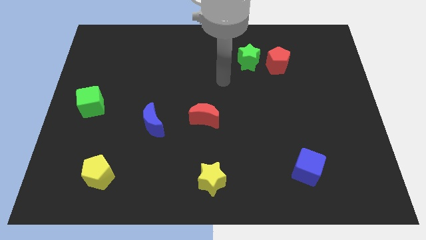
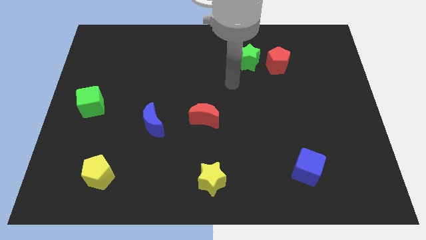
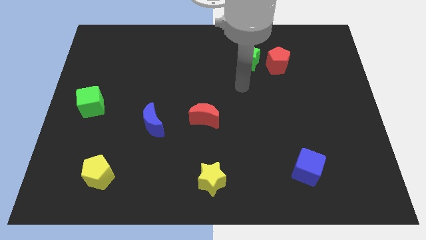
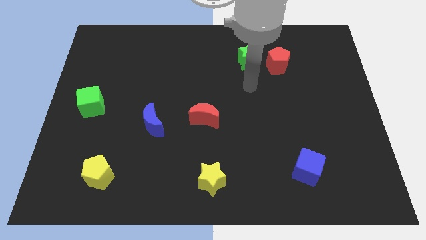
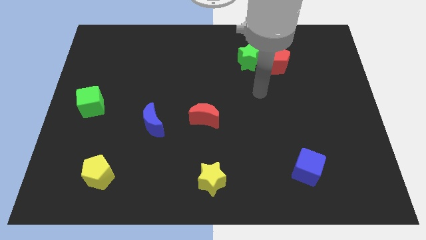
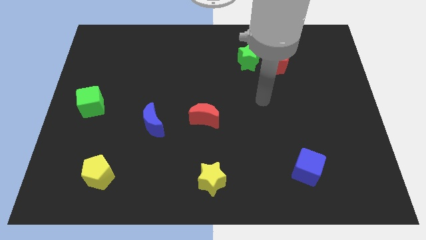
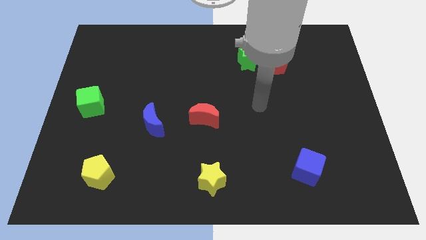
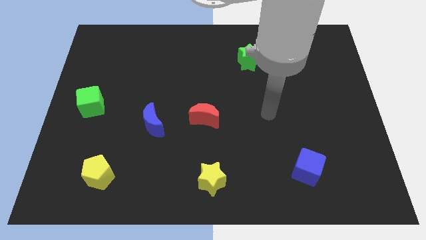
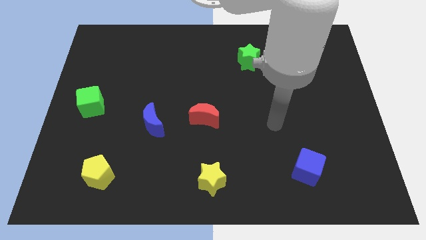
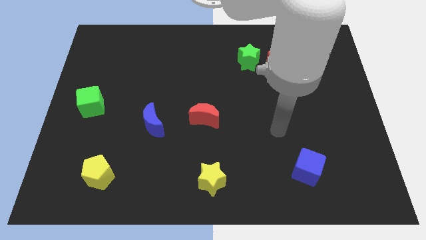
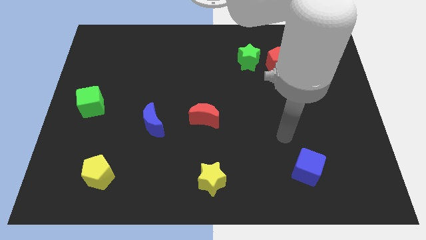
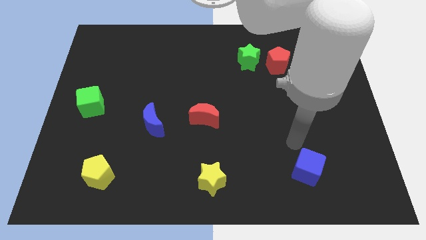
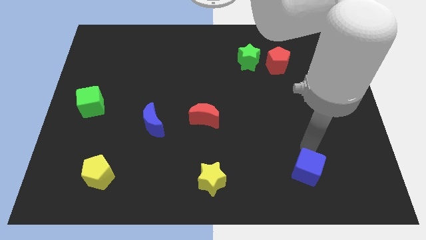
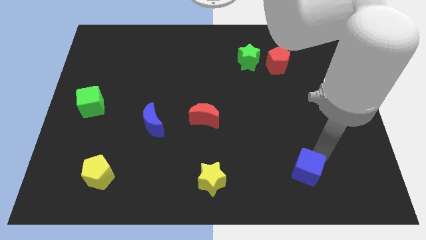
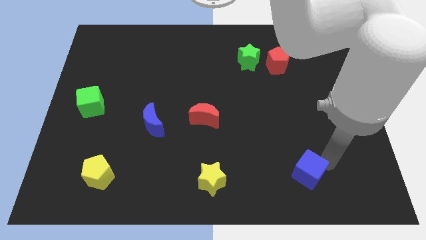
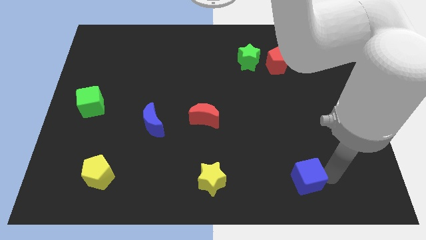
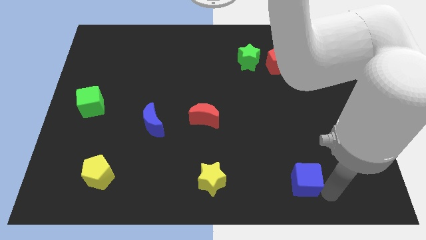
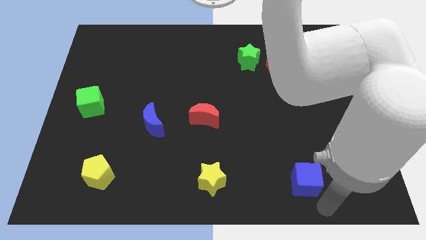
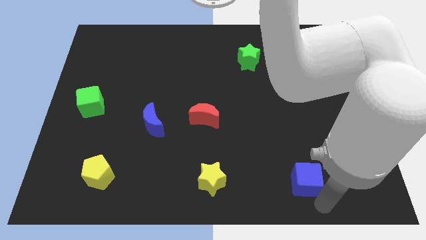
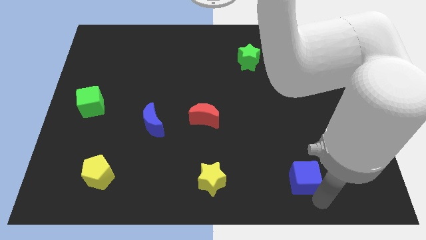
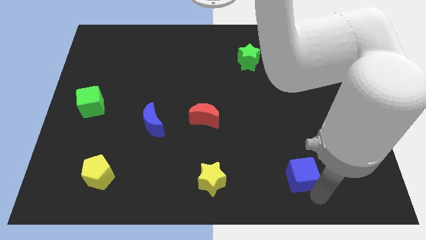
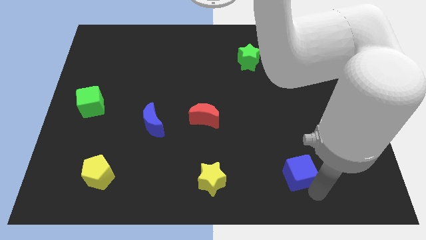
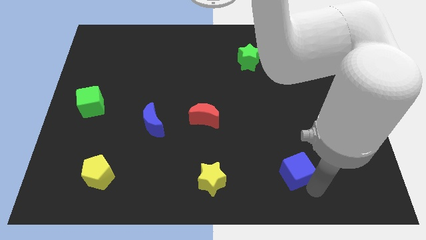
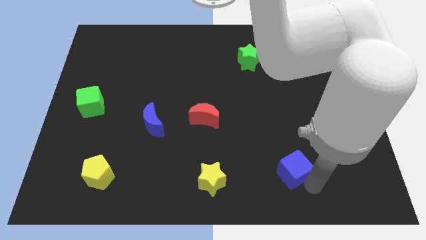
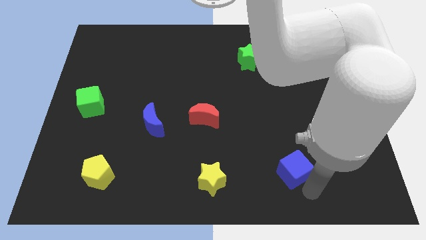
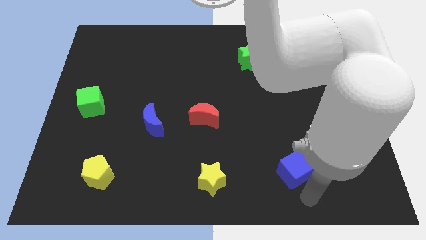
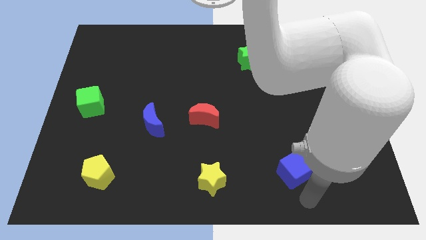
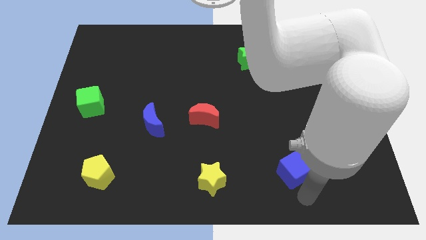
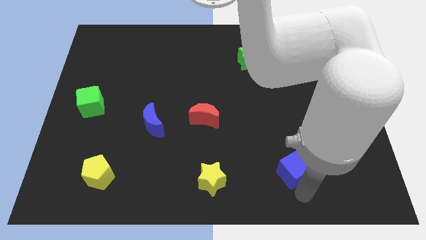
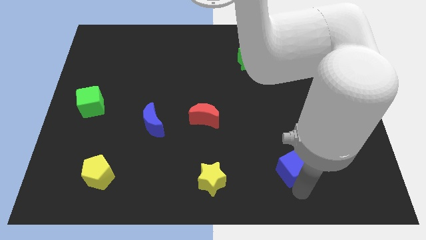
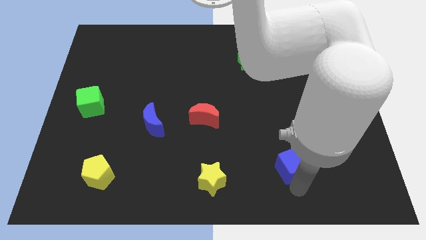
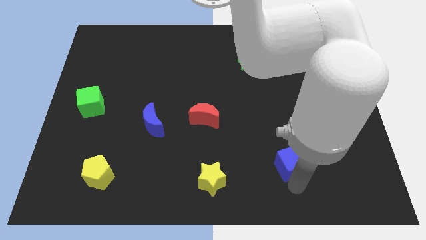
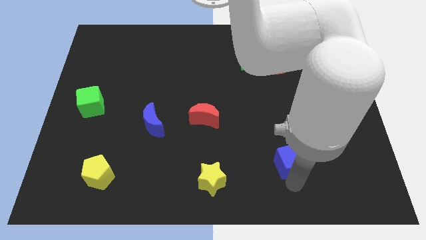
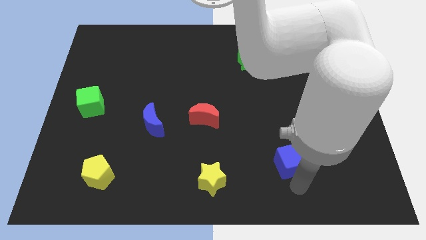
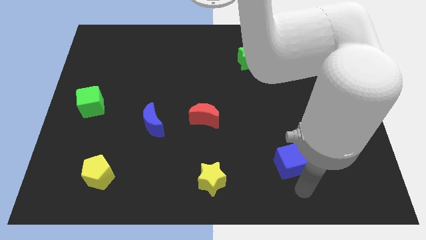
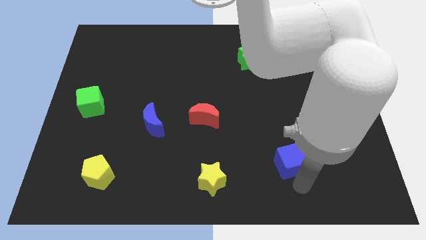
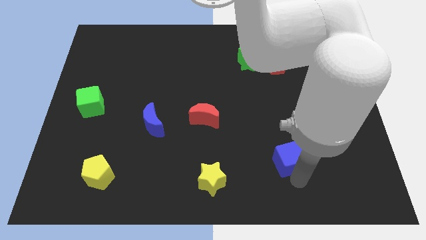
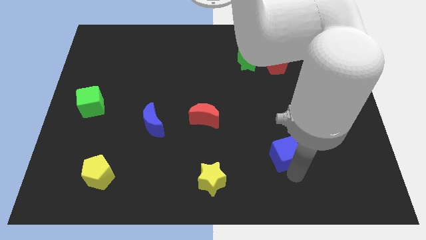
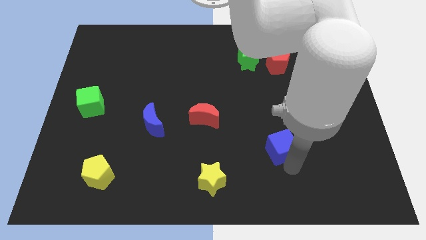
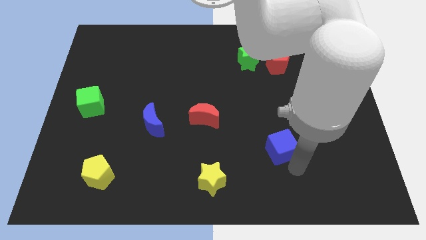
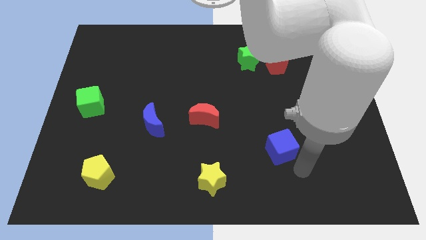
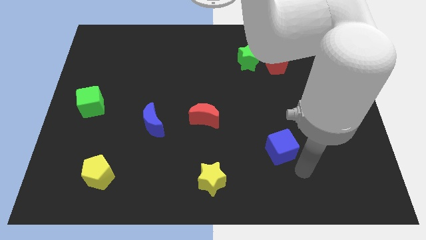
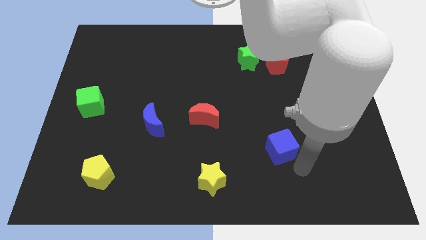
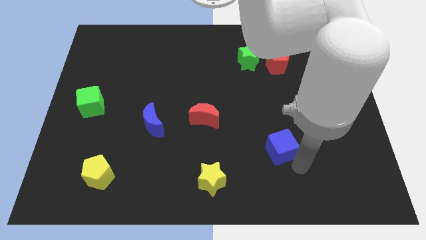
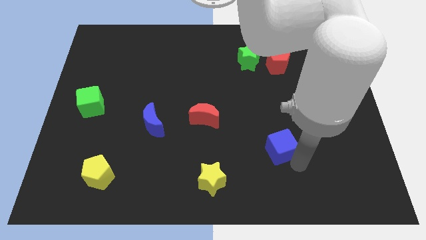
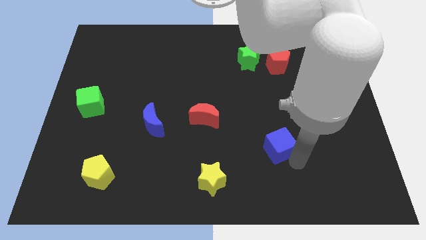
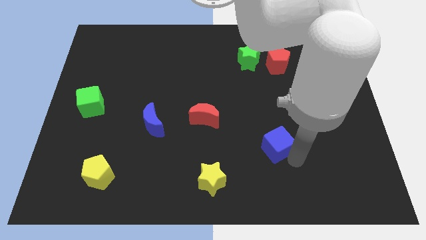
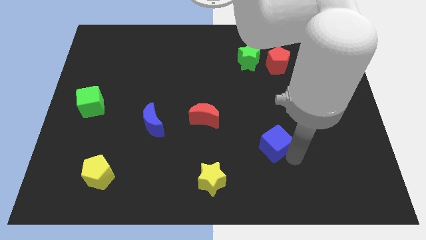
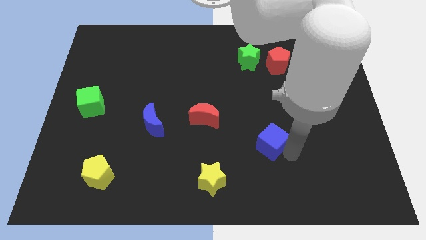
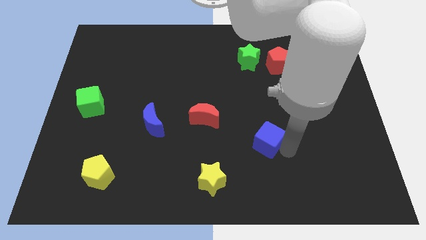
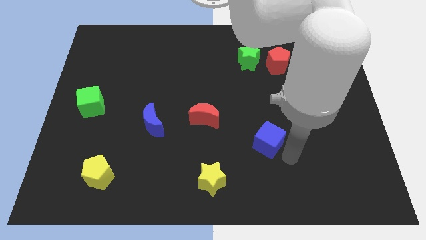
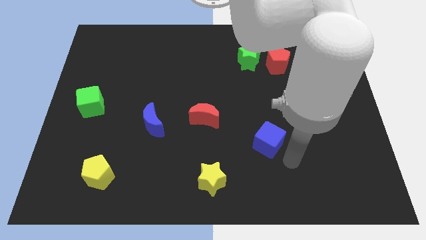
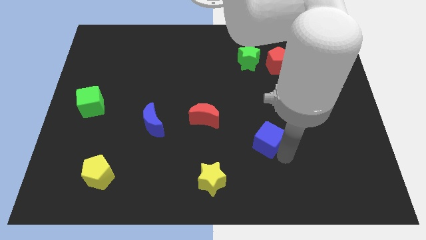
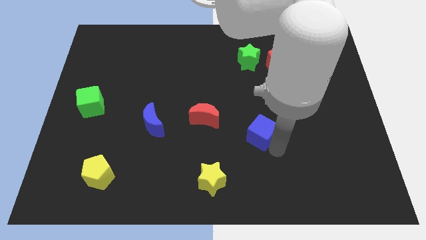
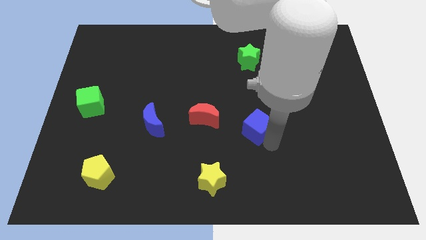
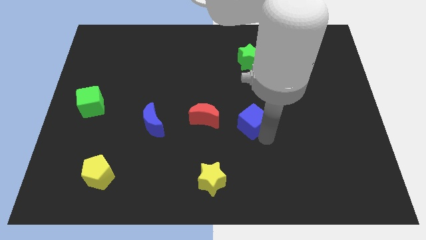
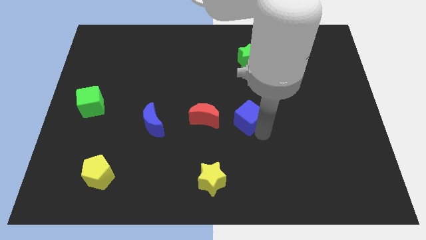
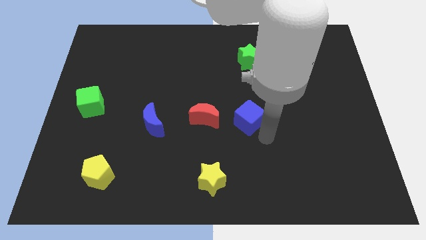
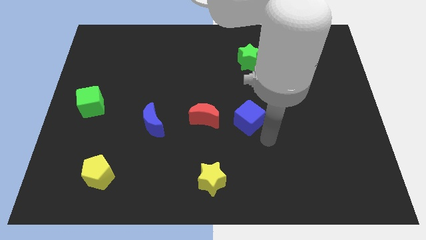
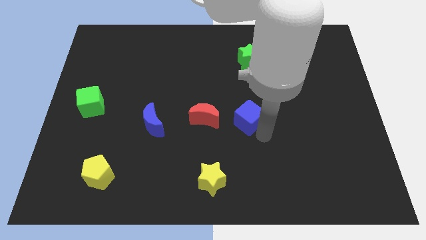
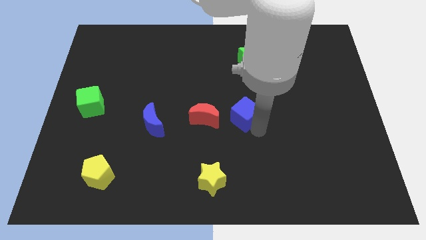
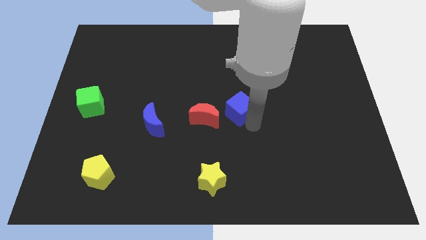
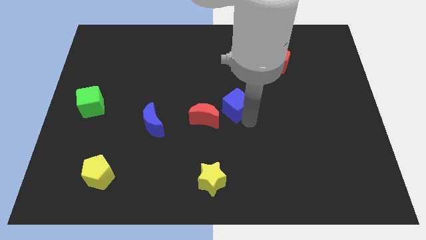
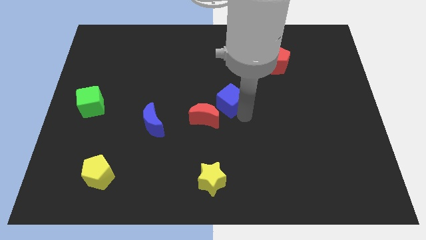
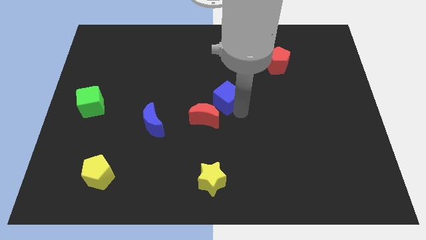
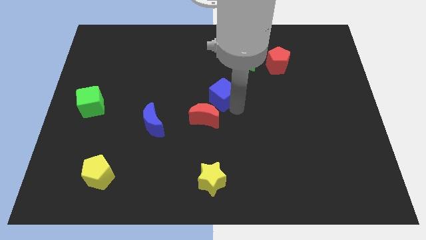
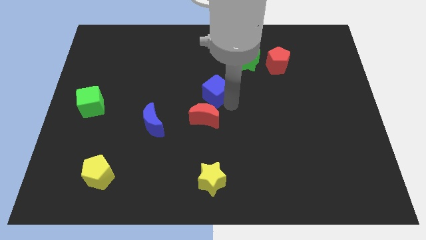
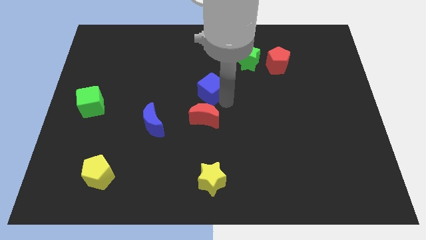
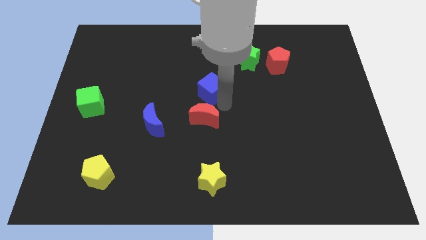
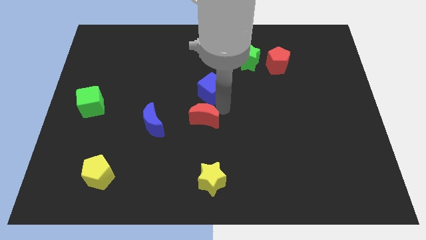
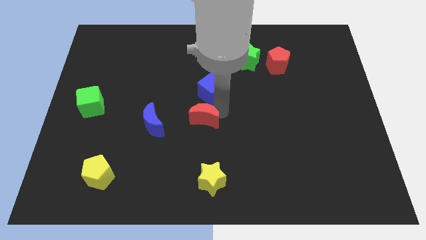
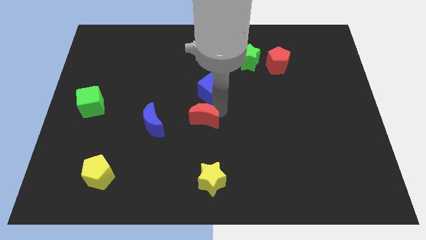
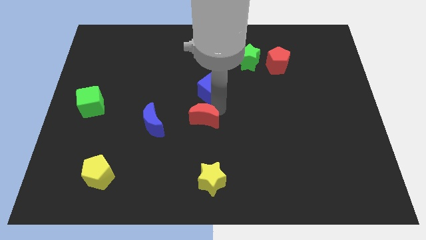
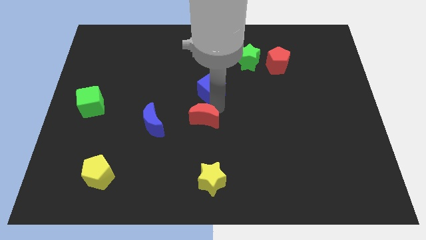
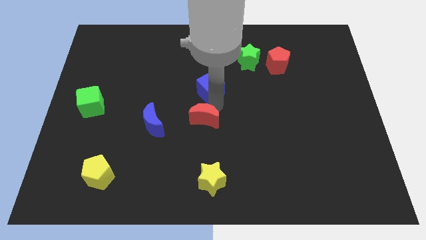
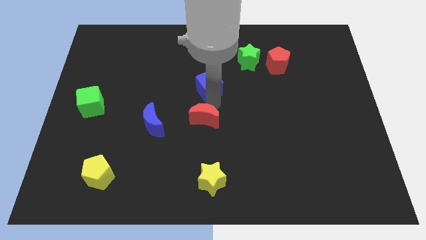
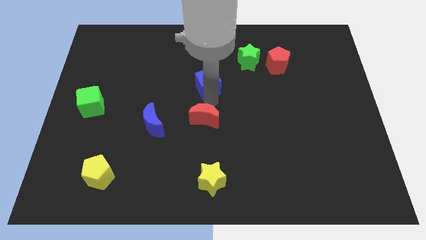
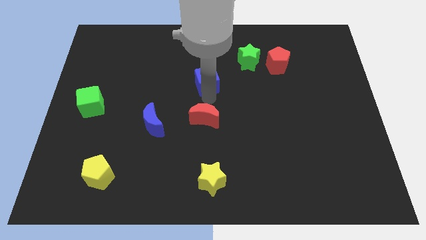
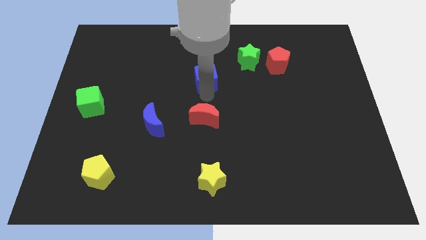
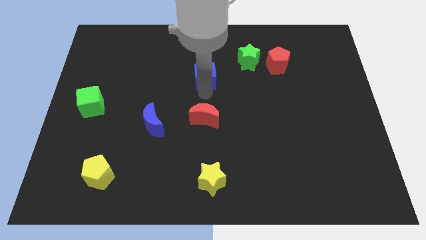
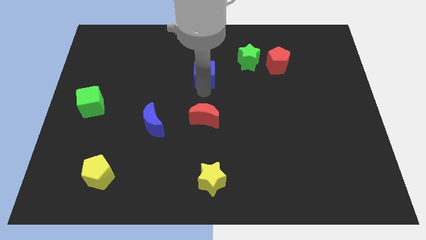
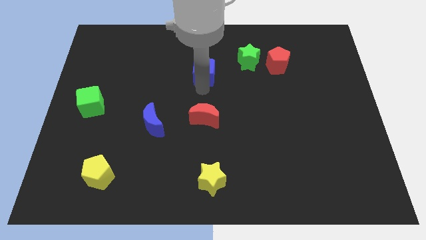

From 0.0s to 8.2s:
push the blue cube to the left side of the green star
